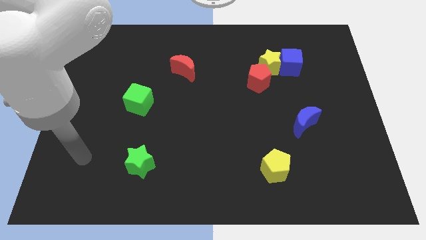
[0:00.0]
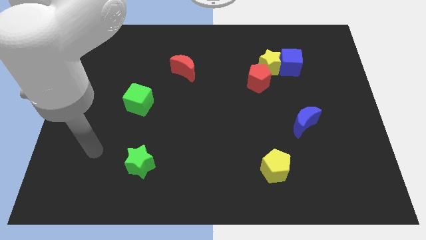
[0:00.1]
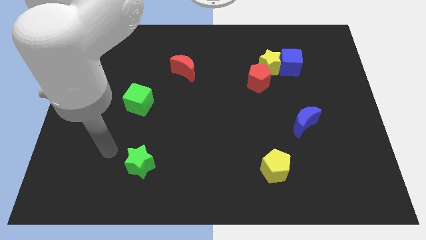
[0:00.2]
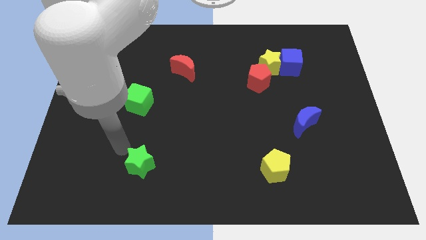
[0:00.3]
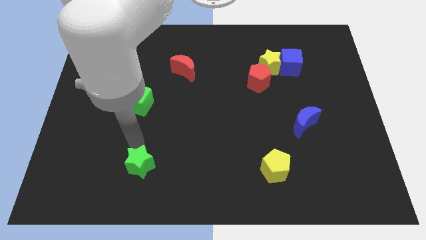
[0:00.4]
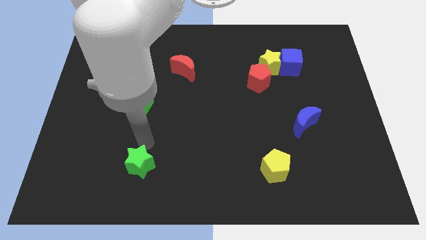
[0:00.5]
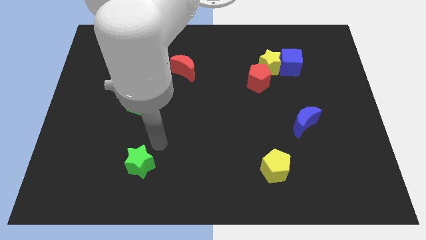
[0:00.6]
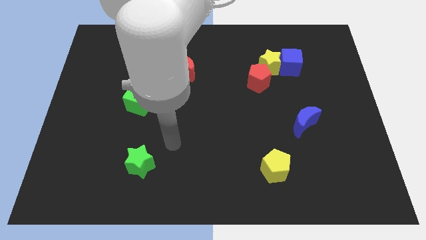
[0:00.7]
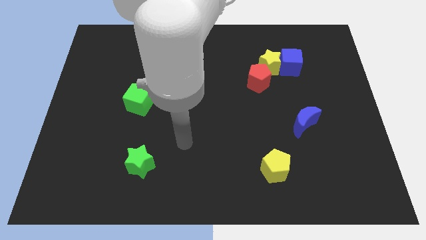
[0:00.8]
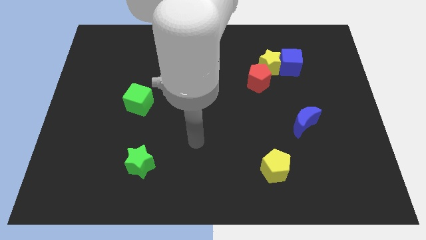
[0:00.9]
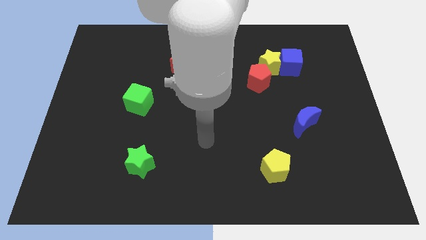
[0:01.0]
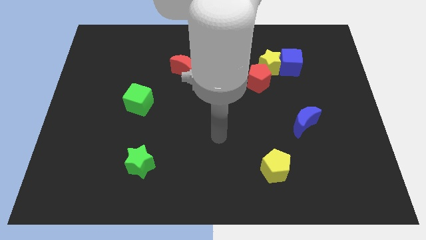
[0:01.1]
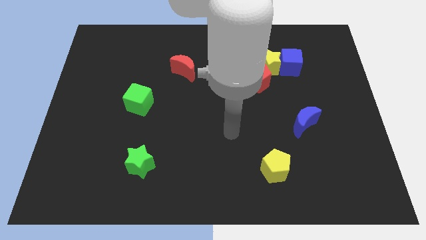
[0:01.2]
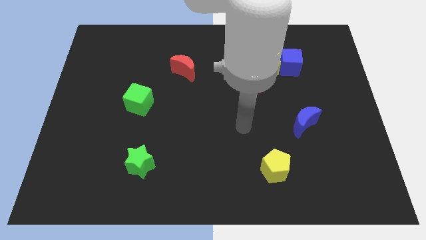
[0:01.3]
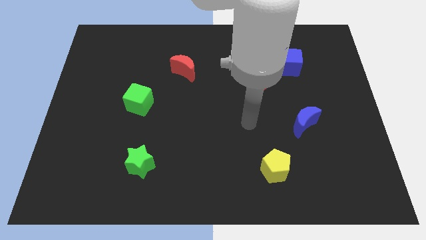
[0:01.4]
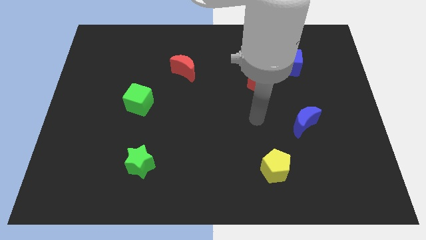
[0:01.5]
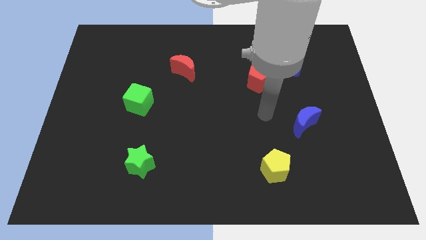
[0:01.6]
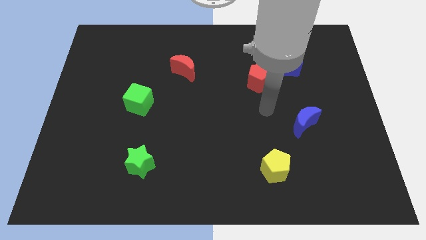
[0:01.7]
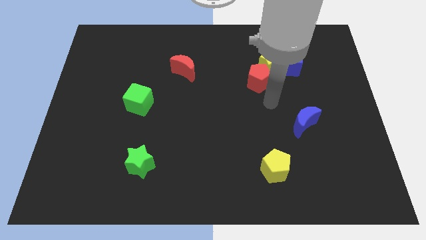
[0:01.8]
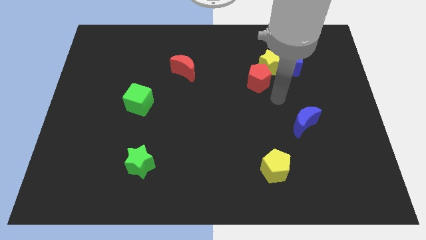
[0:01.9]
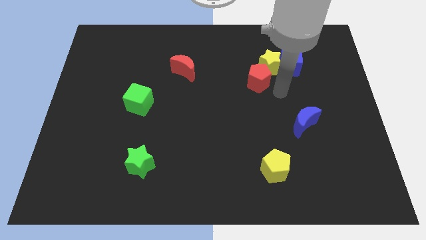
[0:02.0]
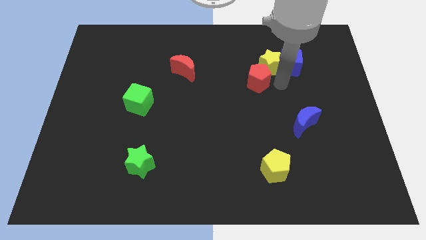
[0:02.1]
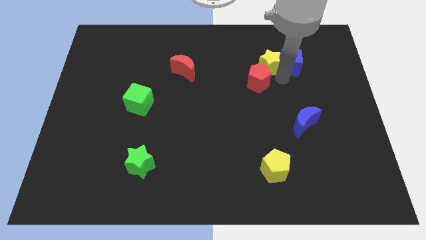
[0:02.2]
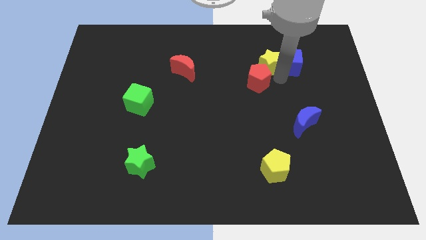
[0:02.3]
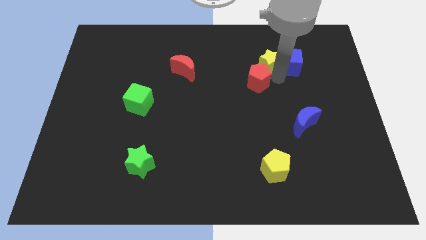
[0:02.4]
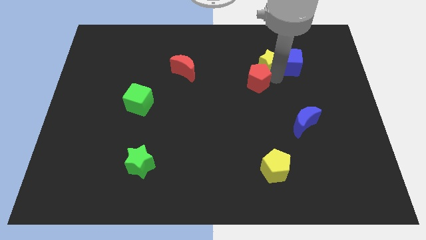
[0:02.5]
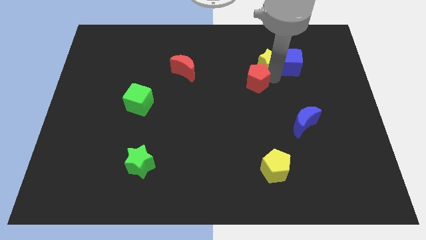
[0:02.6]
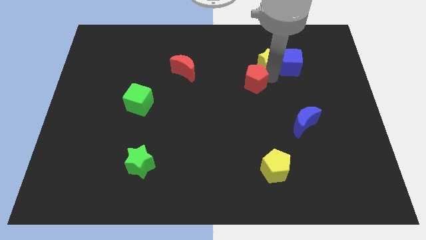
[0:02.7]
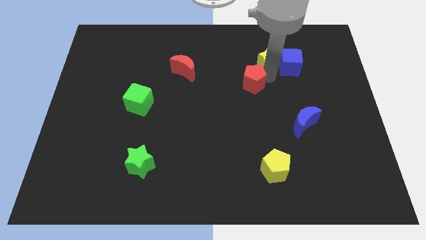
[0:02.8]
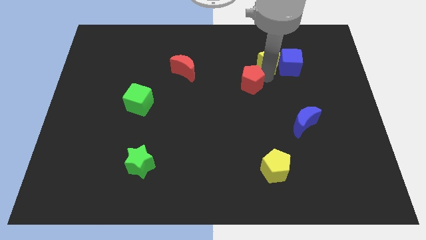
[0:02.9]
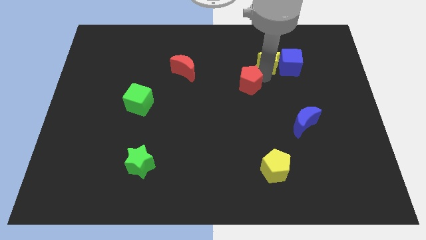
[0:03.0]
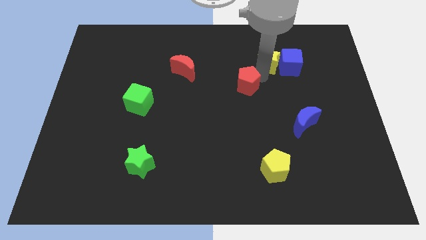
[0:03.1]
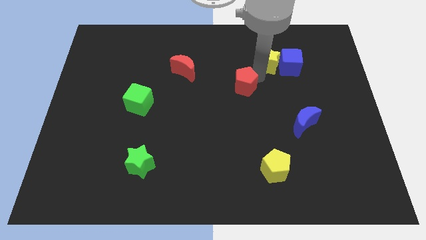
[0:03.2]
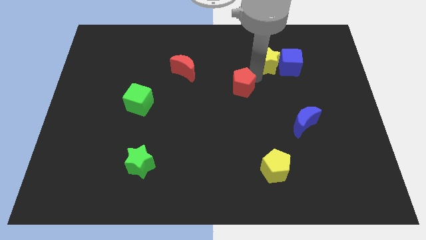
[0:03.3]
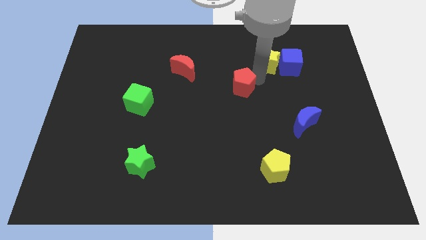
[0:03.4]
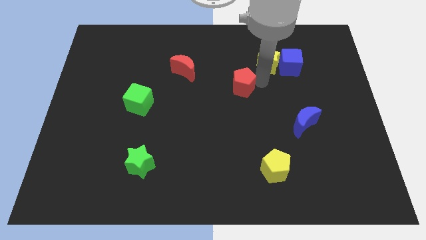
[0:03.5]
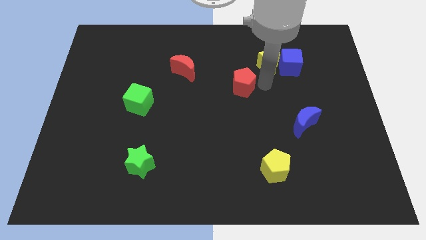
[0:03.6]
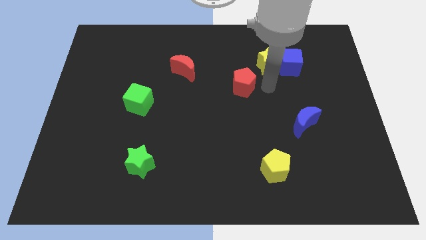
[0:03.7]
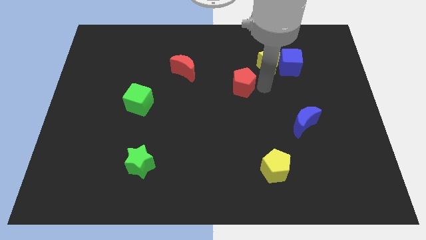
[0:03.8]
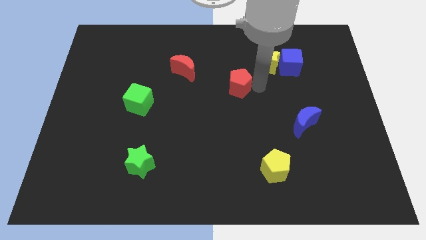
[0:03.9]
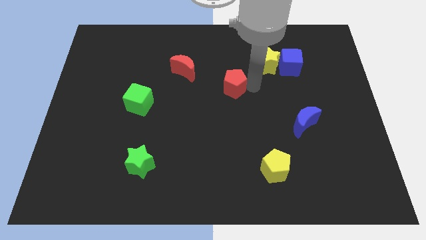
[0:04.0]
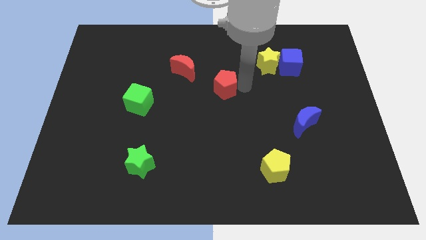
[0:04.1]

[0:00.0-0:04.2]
slightly move the red pentagon to the left

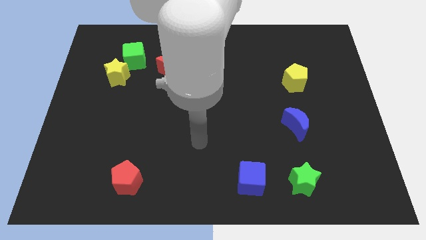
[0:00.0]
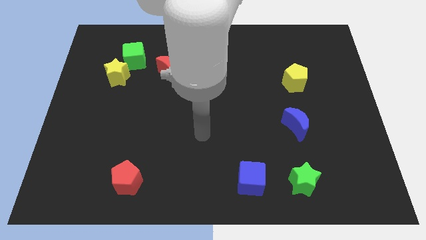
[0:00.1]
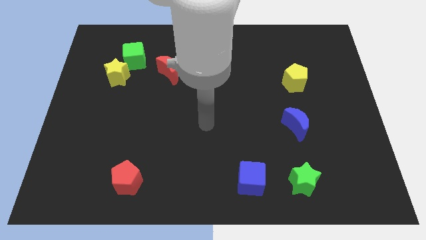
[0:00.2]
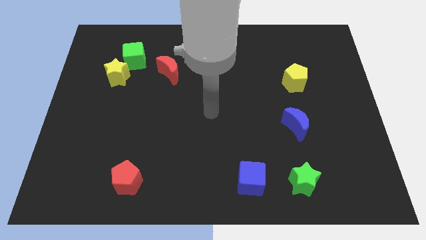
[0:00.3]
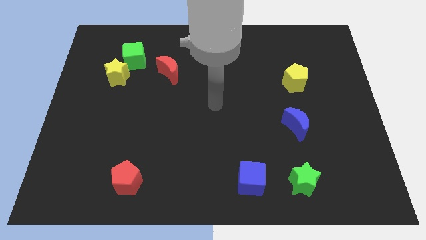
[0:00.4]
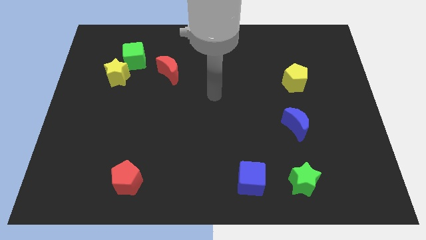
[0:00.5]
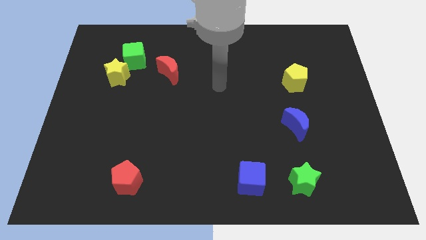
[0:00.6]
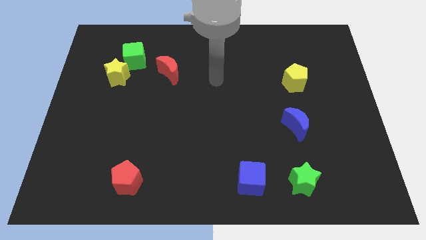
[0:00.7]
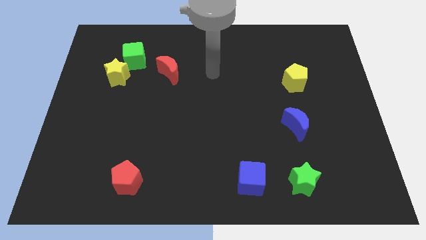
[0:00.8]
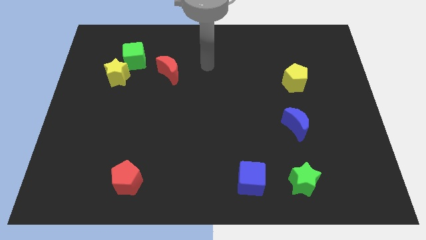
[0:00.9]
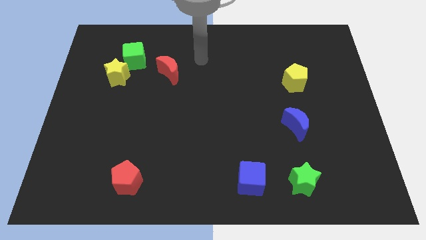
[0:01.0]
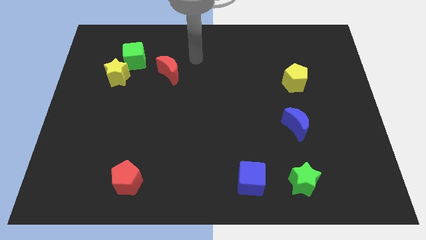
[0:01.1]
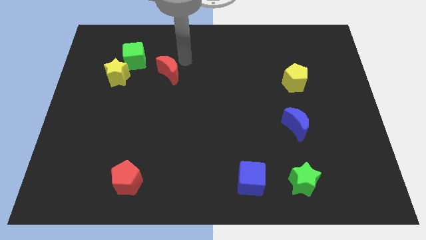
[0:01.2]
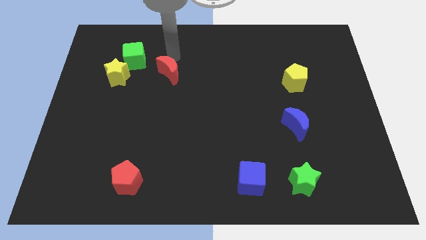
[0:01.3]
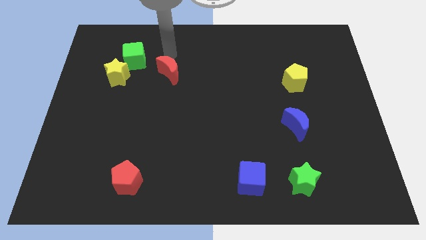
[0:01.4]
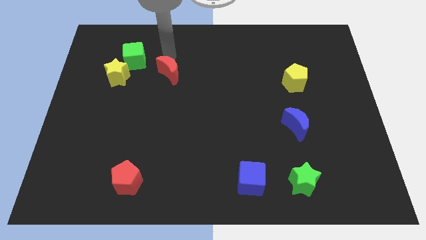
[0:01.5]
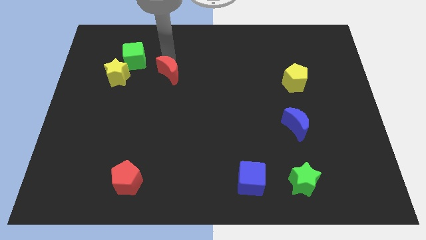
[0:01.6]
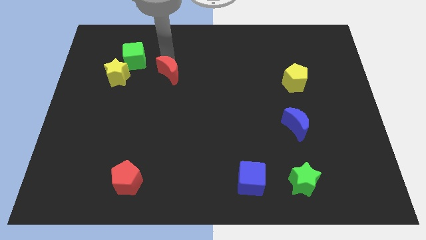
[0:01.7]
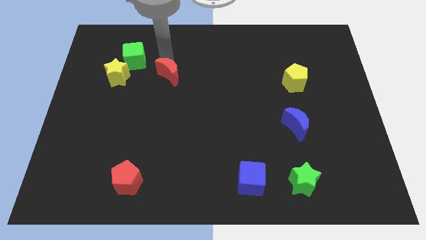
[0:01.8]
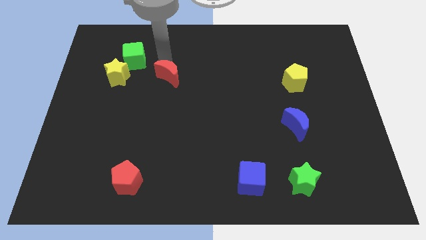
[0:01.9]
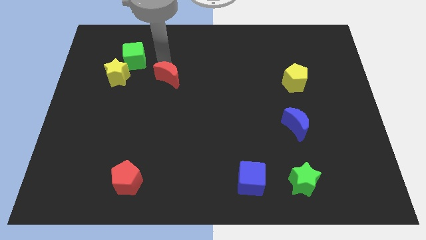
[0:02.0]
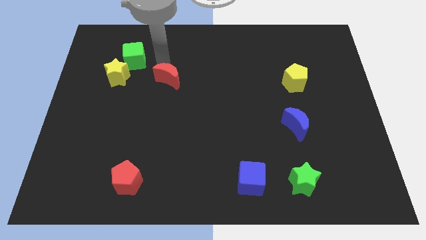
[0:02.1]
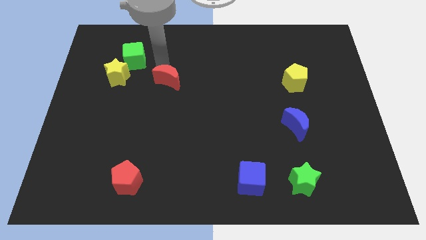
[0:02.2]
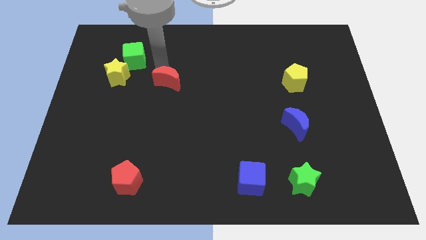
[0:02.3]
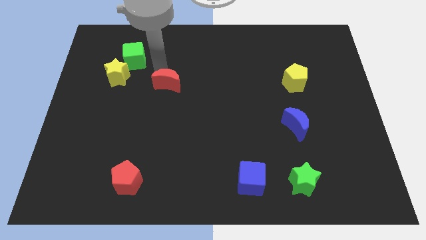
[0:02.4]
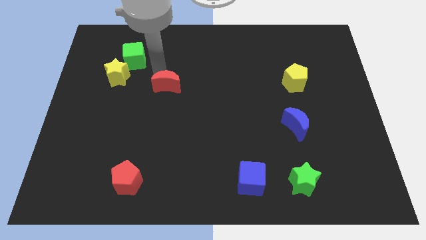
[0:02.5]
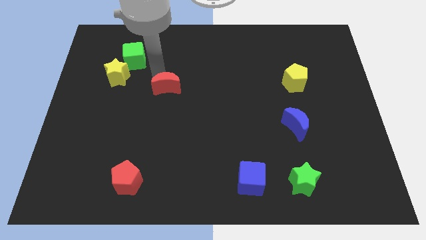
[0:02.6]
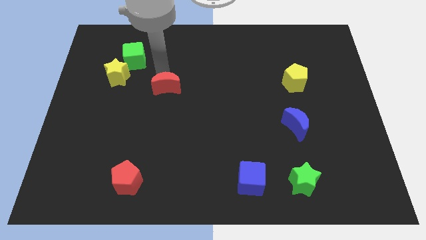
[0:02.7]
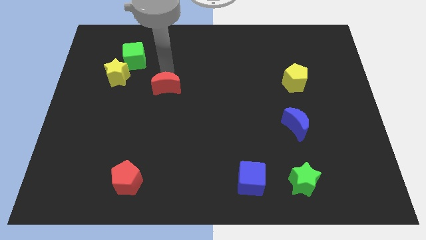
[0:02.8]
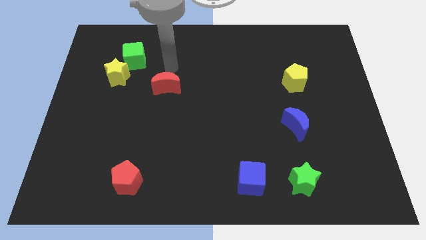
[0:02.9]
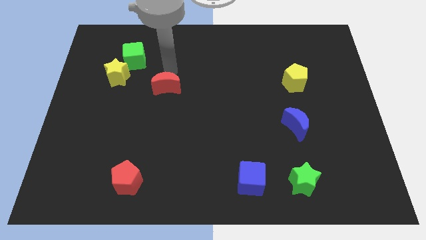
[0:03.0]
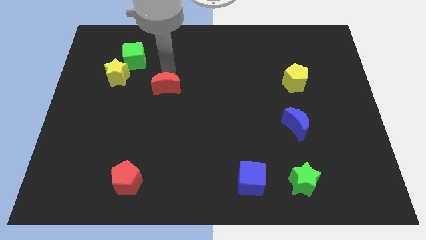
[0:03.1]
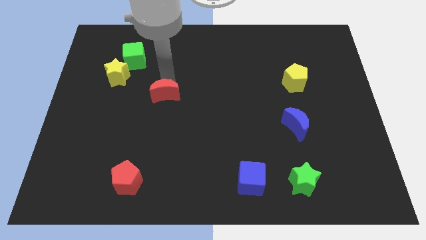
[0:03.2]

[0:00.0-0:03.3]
push the red moon a little bit down

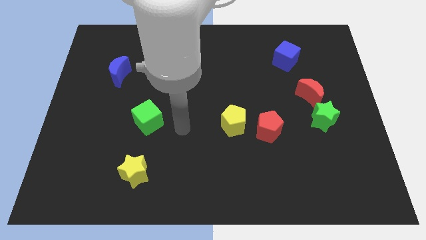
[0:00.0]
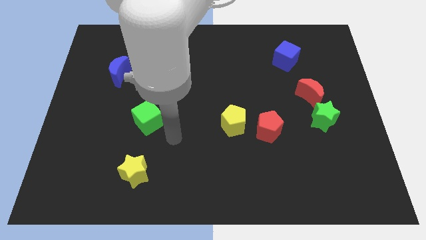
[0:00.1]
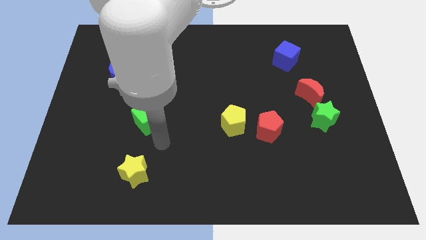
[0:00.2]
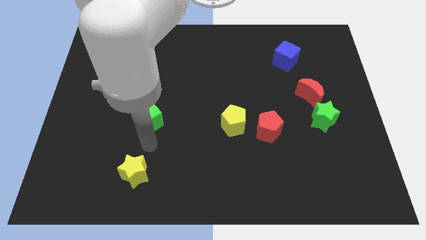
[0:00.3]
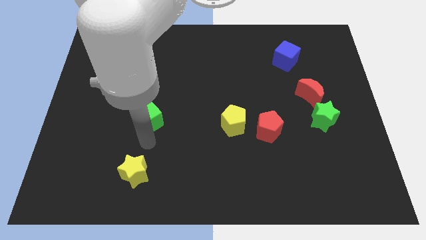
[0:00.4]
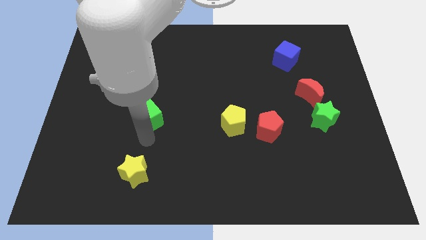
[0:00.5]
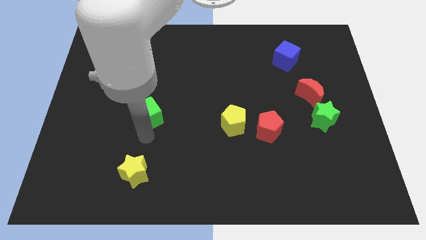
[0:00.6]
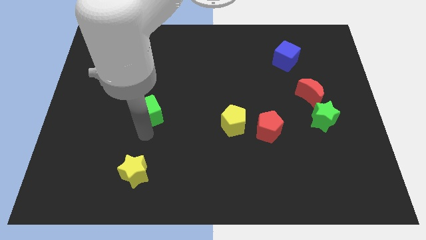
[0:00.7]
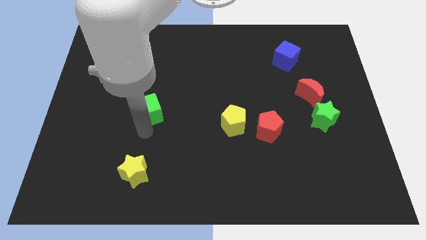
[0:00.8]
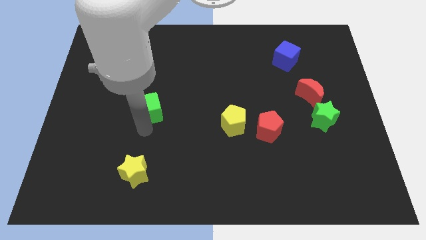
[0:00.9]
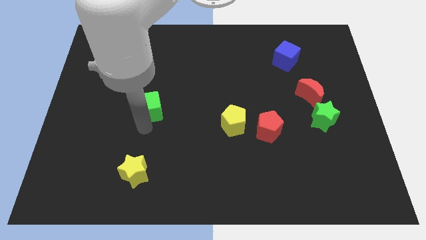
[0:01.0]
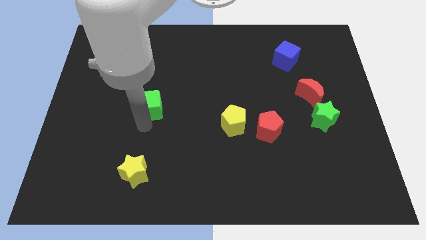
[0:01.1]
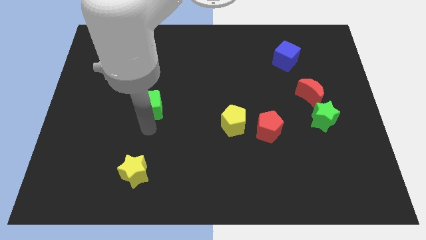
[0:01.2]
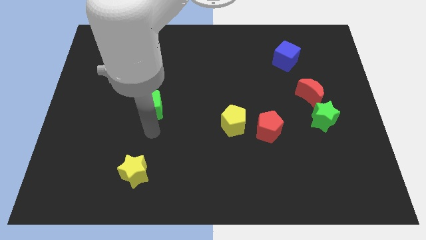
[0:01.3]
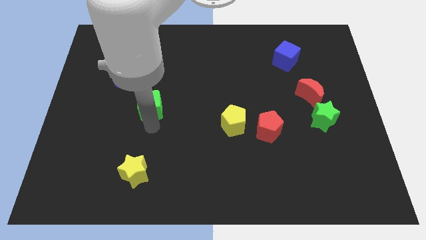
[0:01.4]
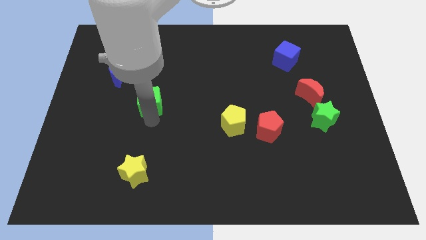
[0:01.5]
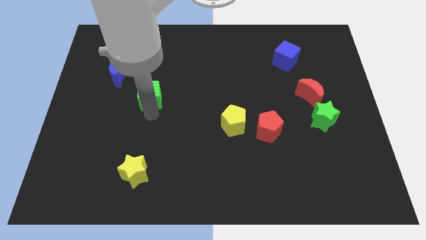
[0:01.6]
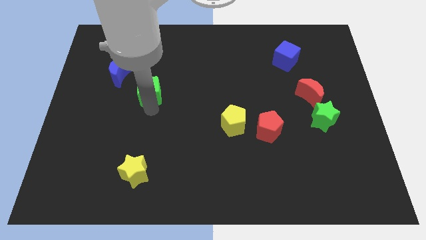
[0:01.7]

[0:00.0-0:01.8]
slightly move the green cube upwards
